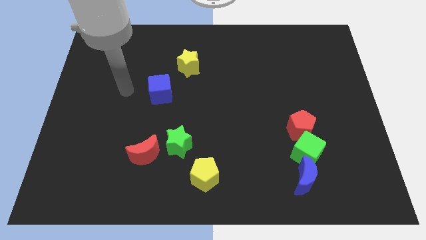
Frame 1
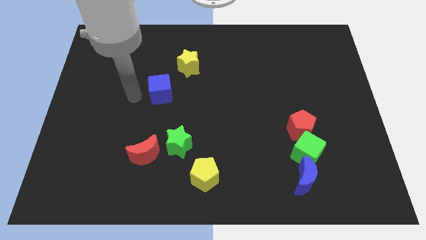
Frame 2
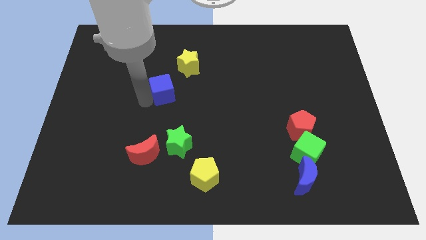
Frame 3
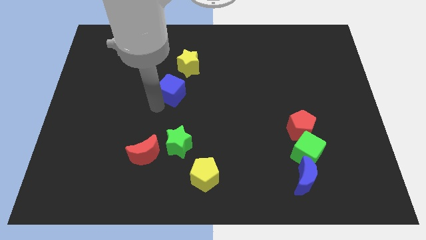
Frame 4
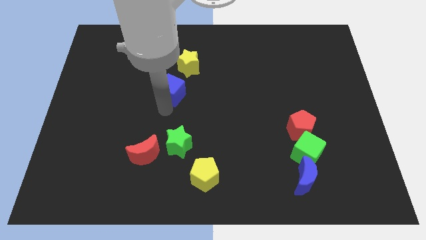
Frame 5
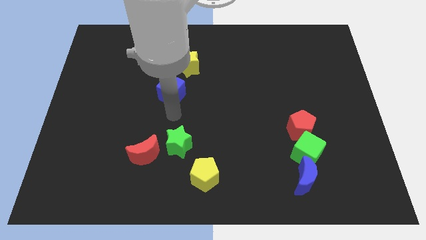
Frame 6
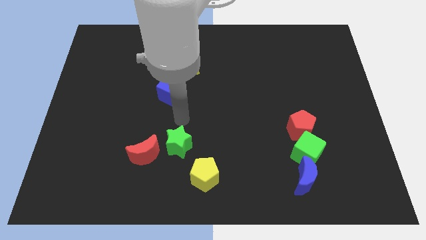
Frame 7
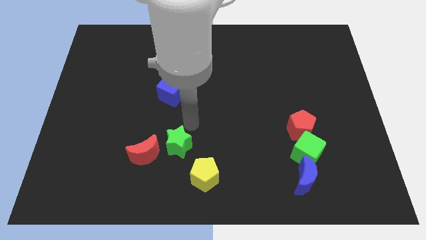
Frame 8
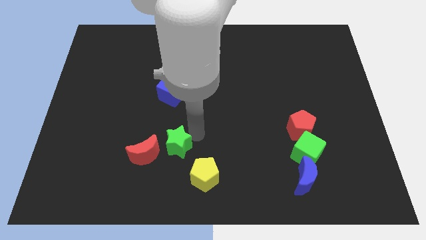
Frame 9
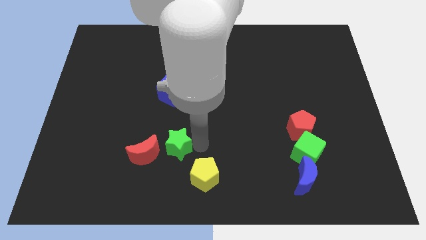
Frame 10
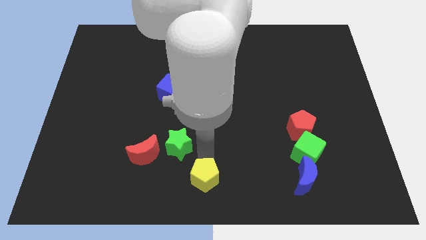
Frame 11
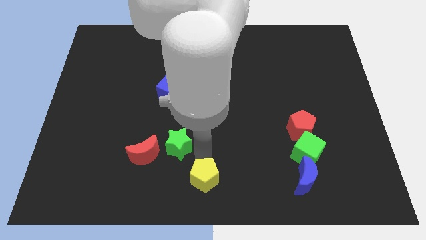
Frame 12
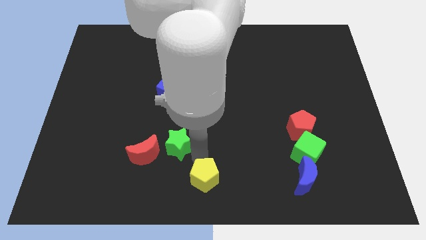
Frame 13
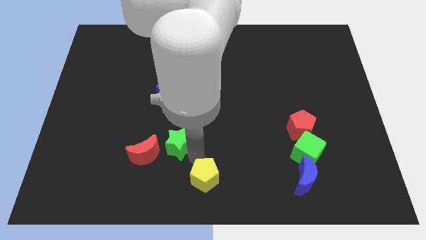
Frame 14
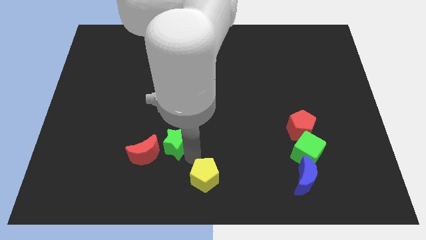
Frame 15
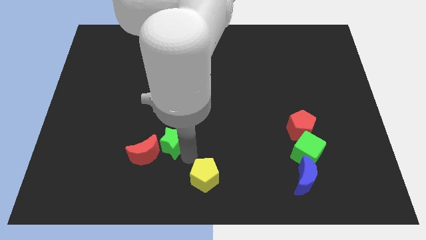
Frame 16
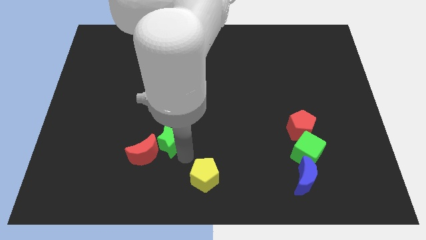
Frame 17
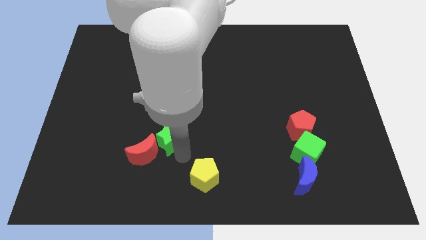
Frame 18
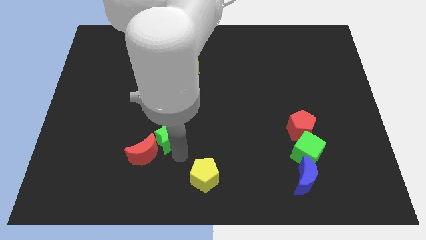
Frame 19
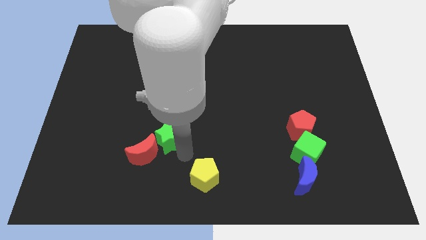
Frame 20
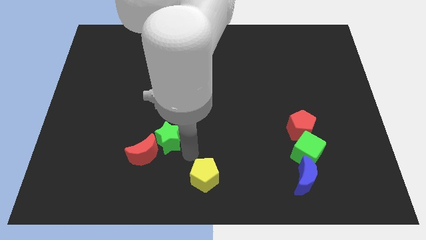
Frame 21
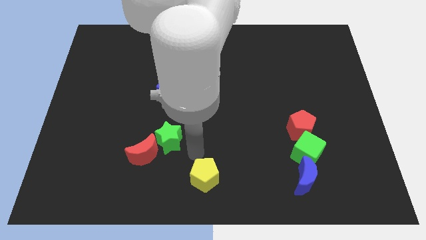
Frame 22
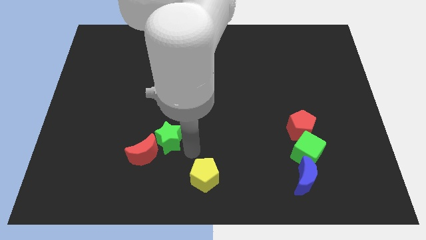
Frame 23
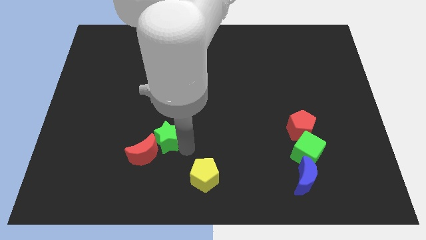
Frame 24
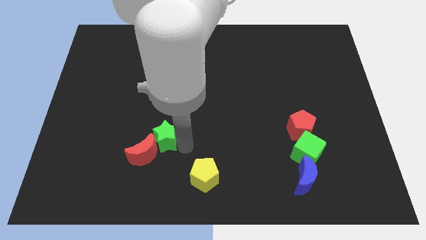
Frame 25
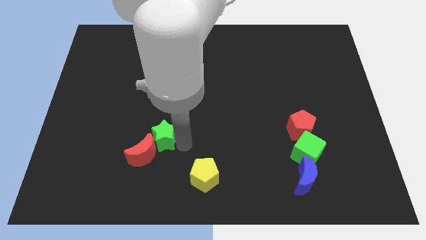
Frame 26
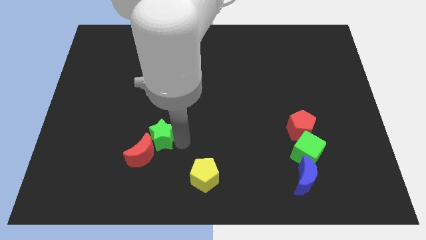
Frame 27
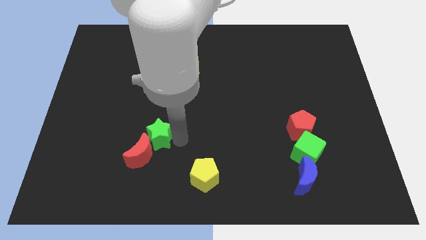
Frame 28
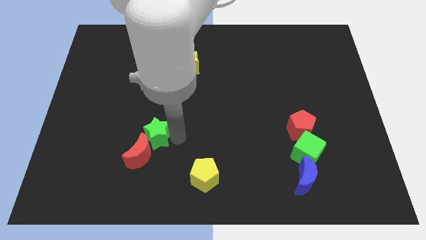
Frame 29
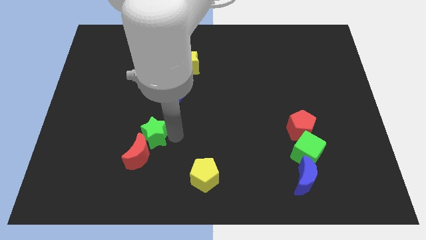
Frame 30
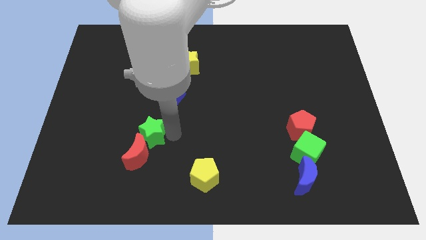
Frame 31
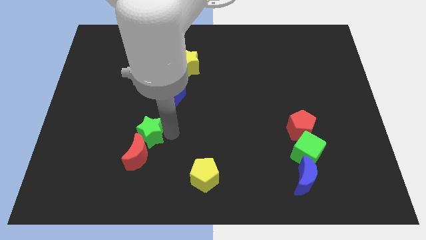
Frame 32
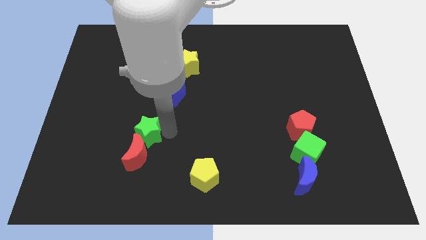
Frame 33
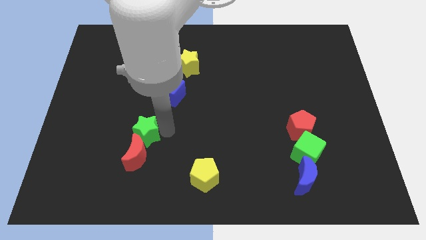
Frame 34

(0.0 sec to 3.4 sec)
push the green star left a little

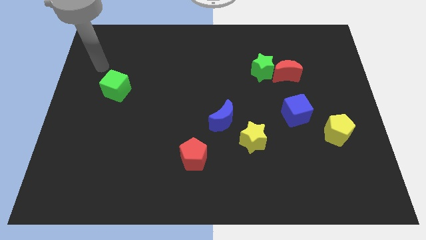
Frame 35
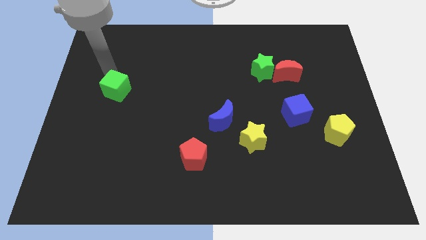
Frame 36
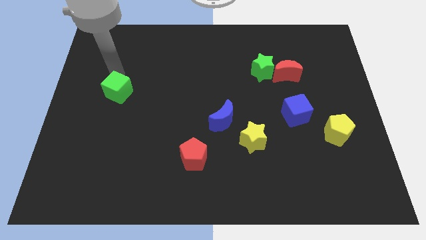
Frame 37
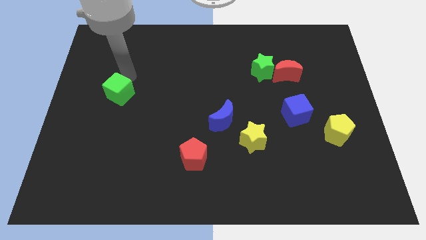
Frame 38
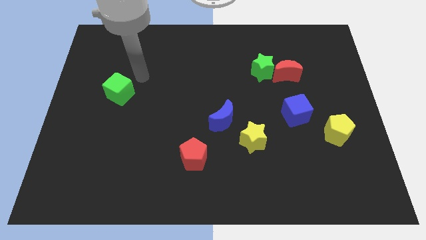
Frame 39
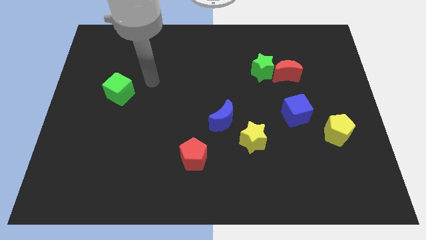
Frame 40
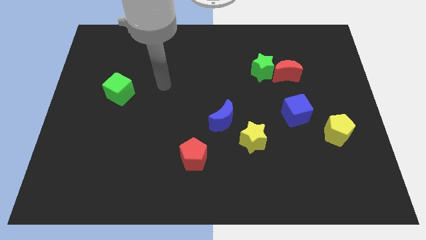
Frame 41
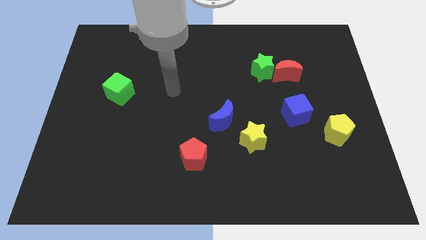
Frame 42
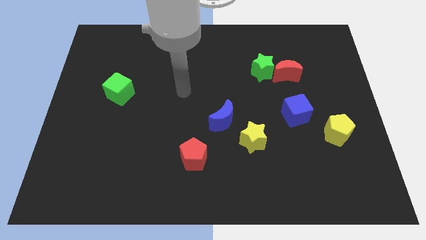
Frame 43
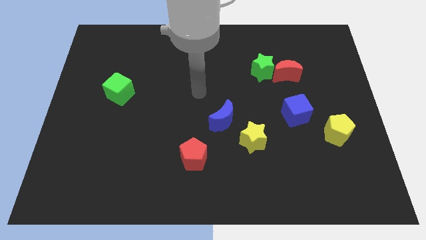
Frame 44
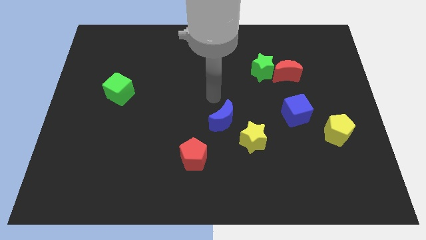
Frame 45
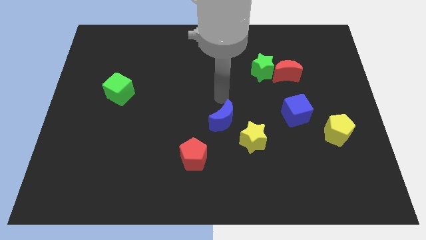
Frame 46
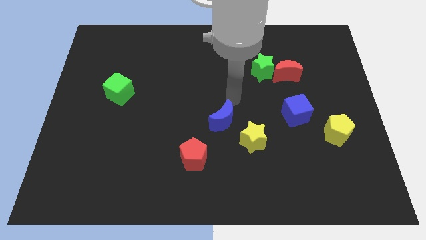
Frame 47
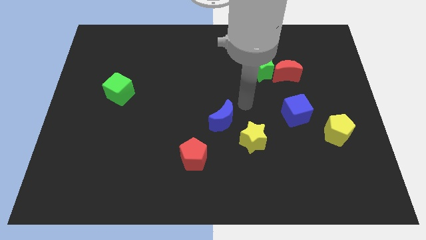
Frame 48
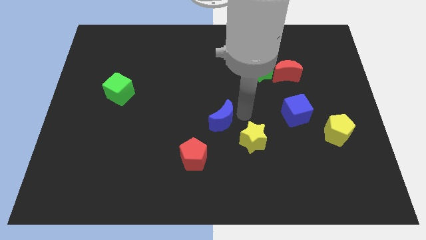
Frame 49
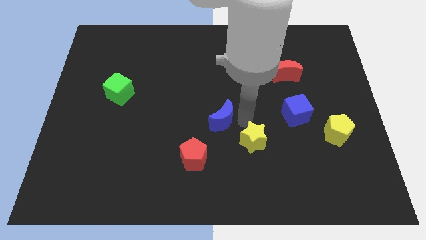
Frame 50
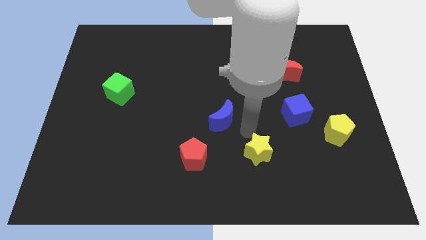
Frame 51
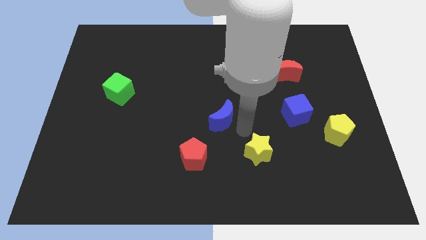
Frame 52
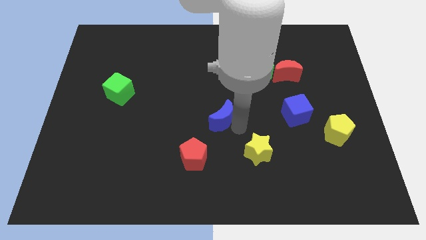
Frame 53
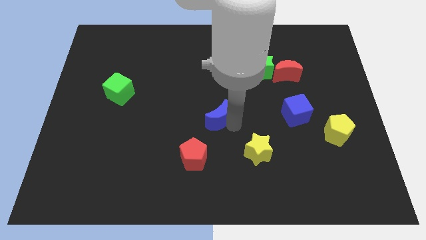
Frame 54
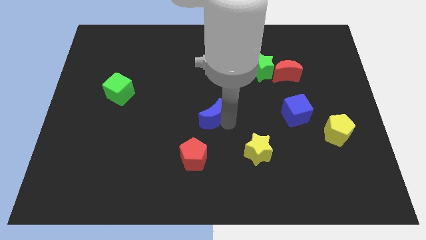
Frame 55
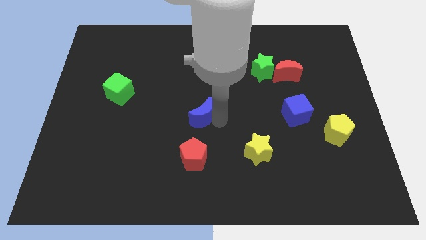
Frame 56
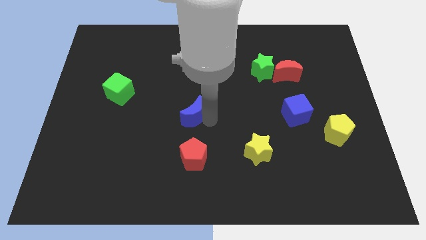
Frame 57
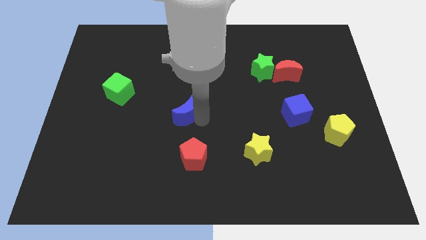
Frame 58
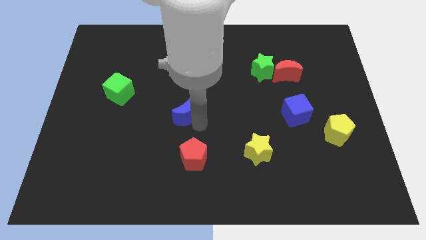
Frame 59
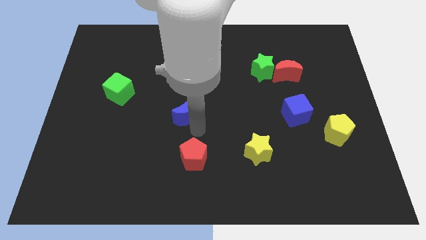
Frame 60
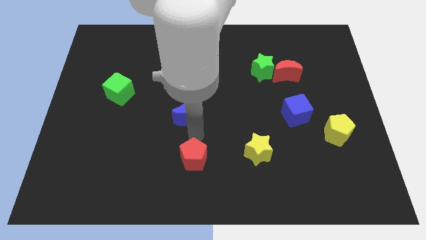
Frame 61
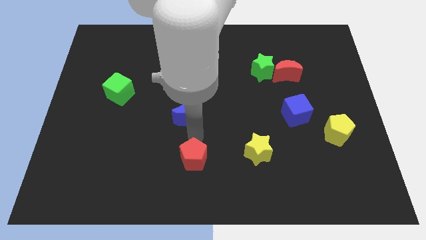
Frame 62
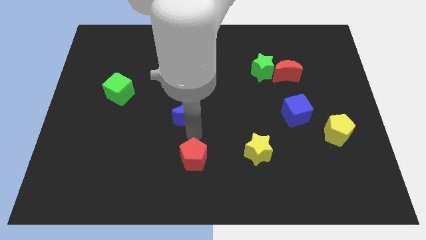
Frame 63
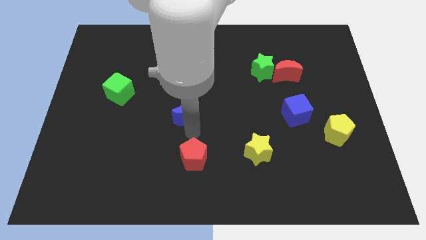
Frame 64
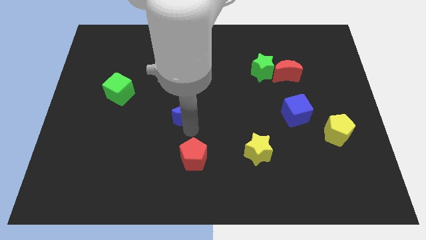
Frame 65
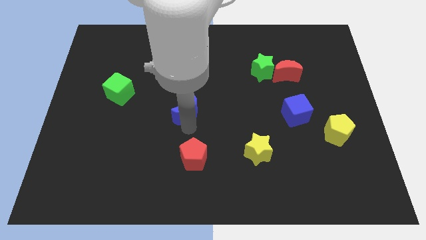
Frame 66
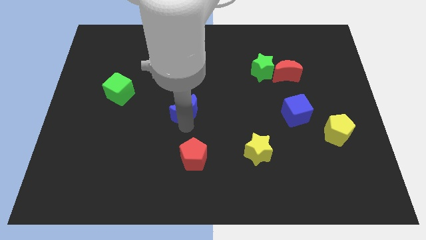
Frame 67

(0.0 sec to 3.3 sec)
slightly slide the blue moon upwards and left

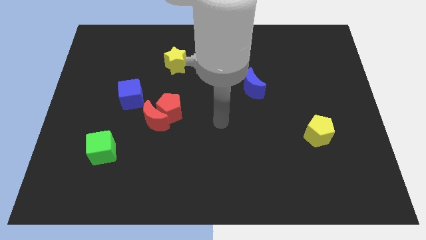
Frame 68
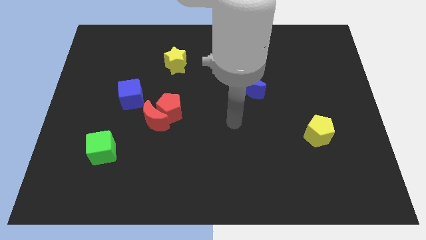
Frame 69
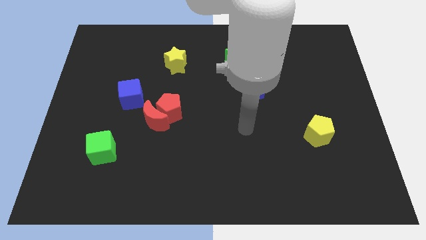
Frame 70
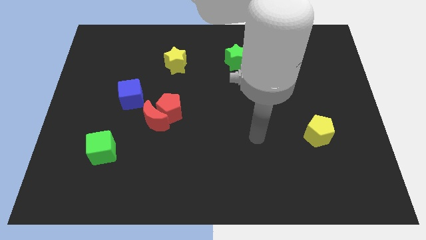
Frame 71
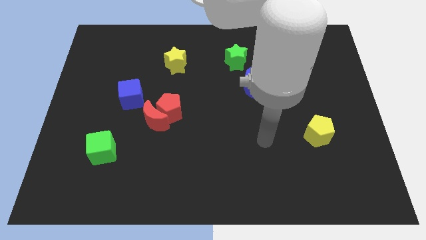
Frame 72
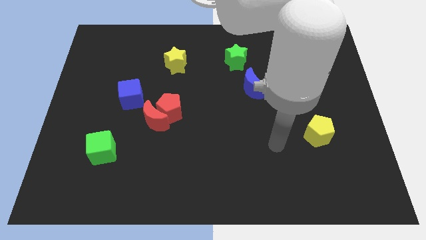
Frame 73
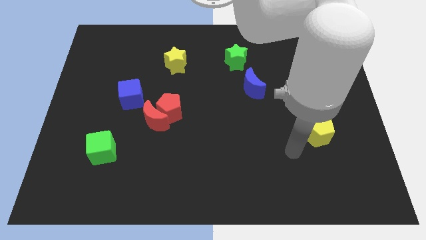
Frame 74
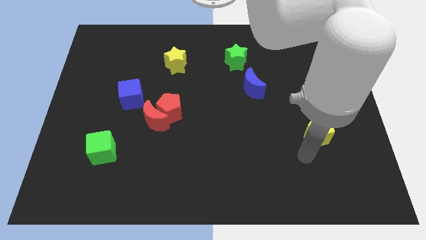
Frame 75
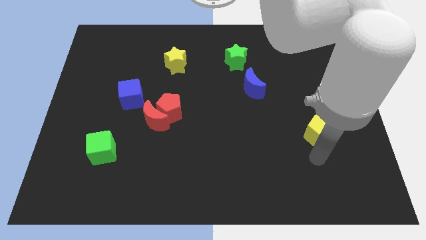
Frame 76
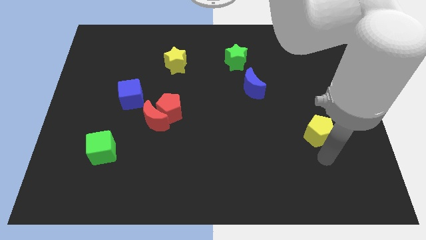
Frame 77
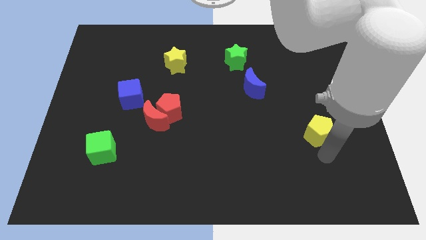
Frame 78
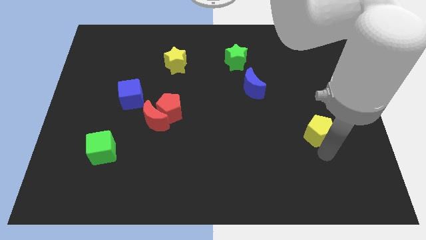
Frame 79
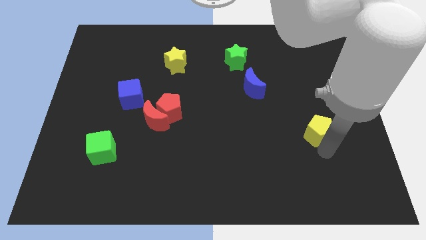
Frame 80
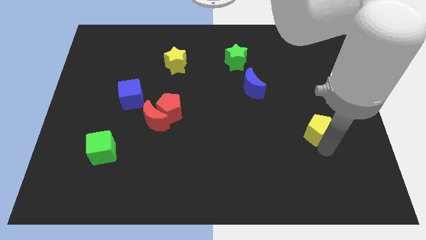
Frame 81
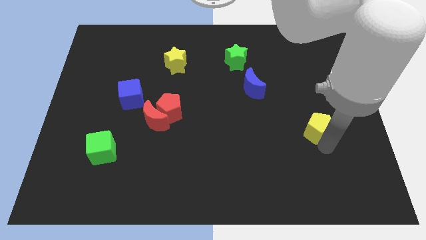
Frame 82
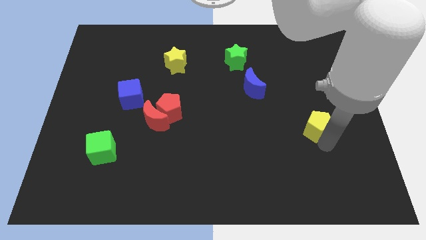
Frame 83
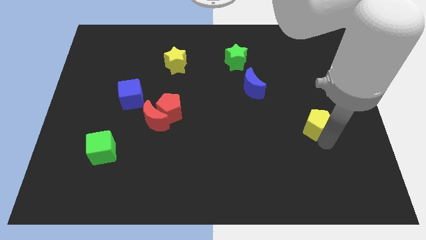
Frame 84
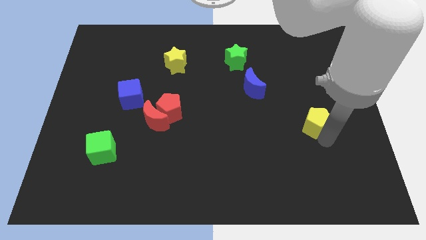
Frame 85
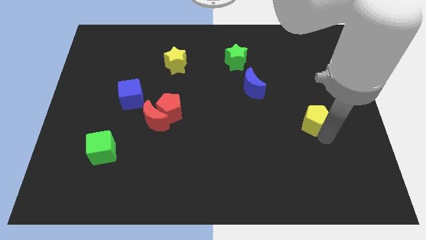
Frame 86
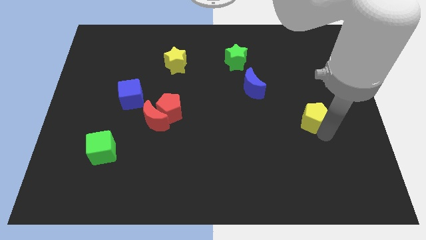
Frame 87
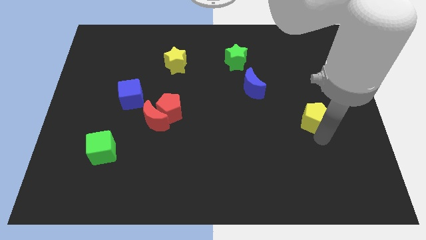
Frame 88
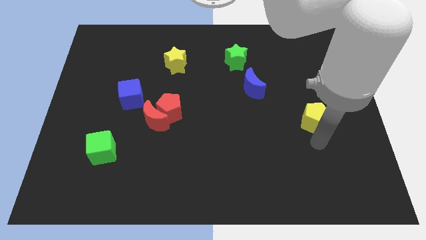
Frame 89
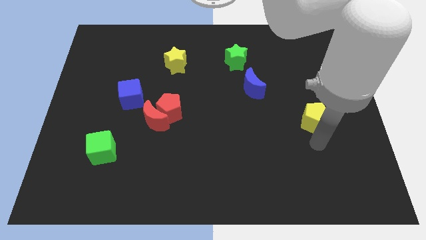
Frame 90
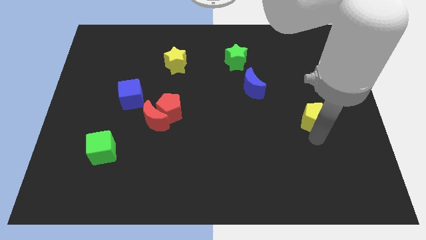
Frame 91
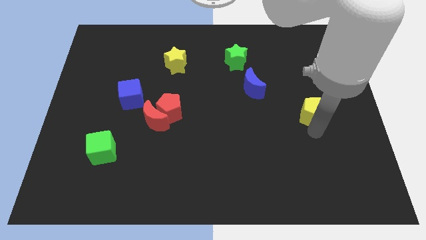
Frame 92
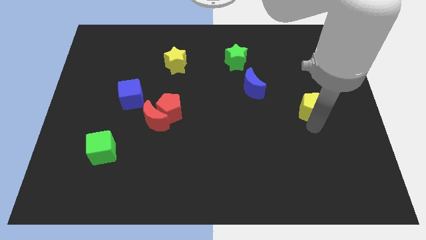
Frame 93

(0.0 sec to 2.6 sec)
push the yellow pentagon a little bit up
